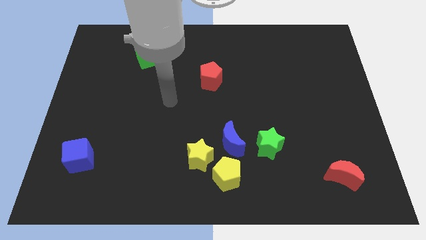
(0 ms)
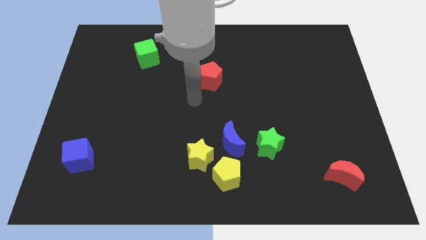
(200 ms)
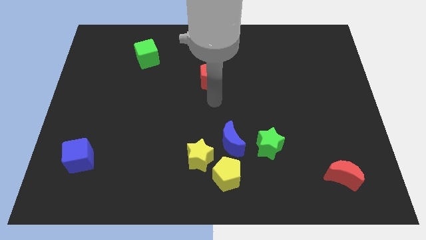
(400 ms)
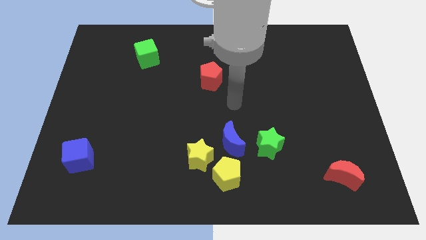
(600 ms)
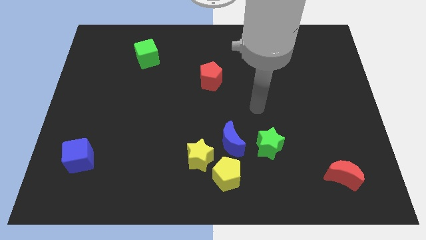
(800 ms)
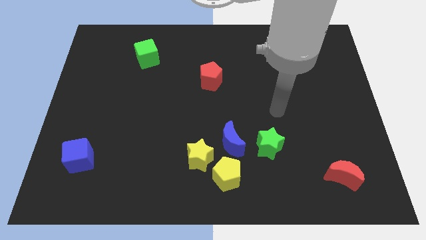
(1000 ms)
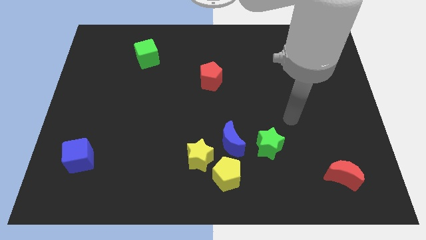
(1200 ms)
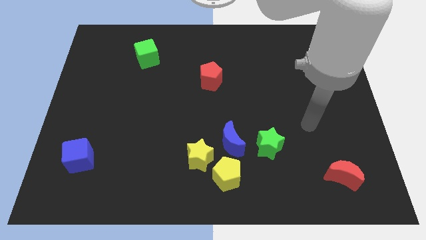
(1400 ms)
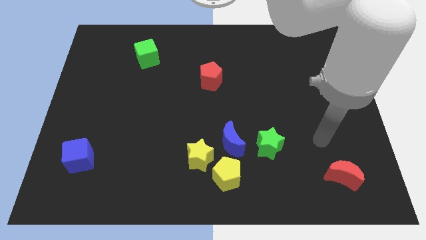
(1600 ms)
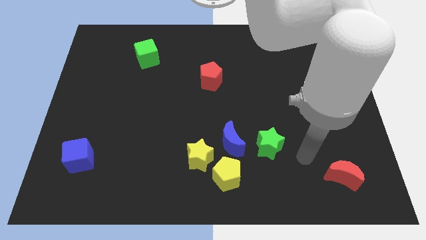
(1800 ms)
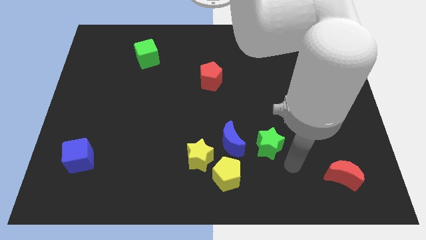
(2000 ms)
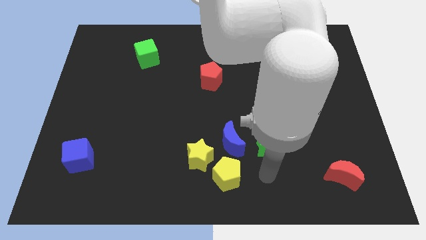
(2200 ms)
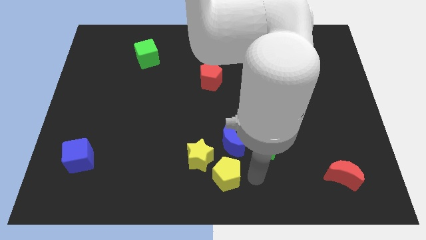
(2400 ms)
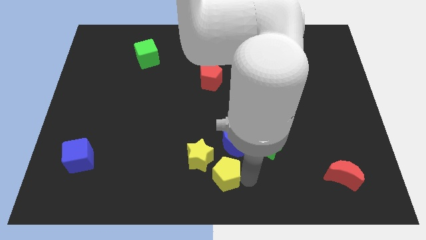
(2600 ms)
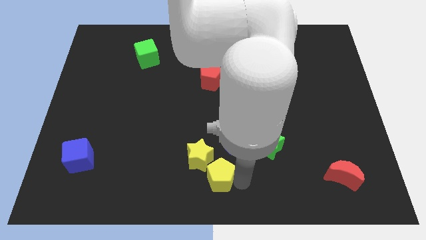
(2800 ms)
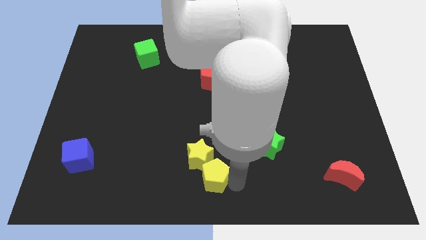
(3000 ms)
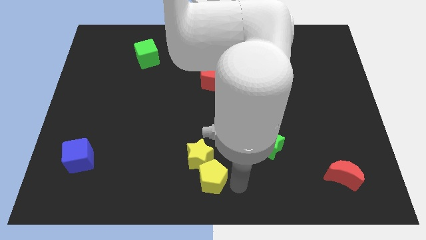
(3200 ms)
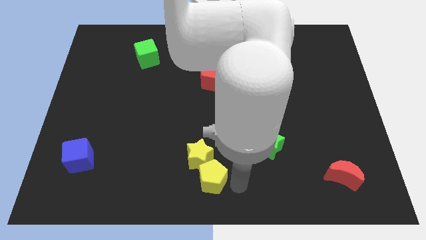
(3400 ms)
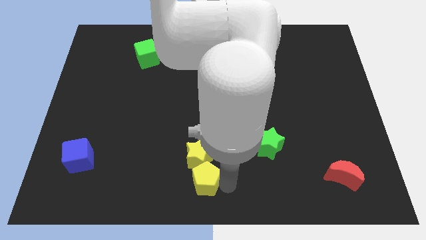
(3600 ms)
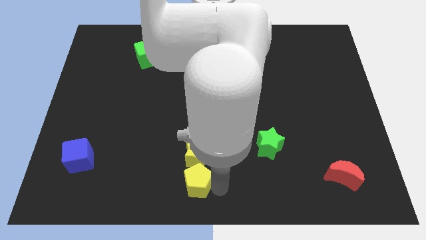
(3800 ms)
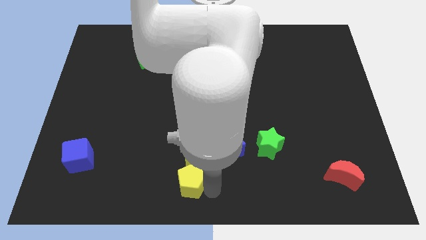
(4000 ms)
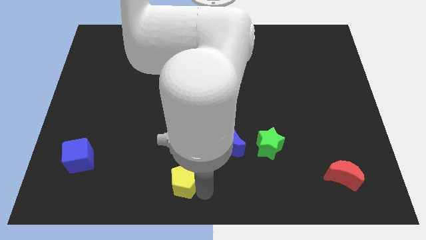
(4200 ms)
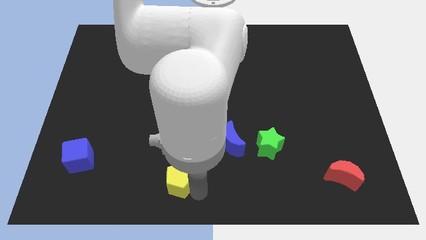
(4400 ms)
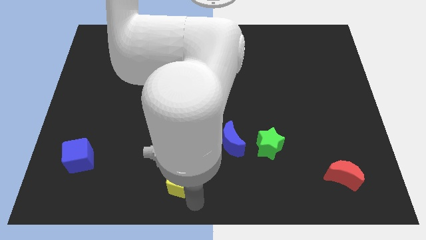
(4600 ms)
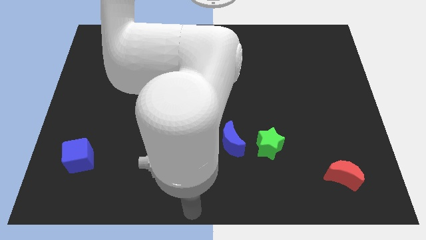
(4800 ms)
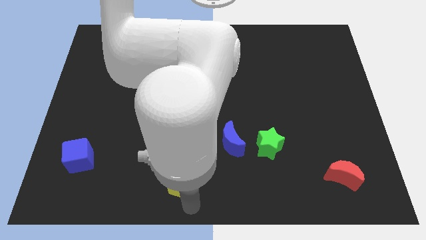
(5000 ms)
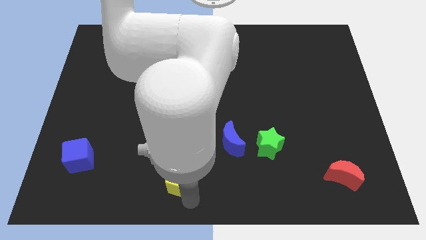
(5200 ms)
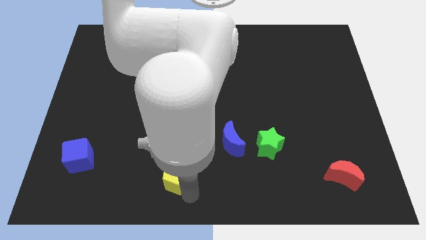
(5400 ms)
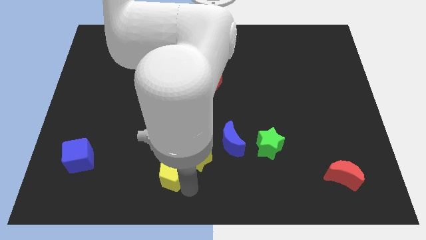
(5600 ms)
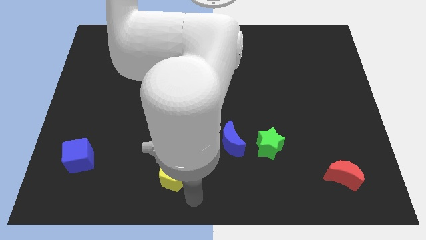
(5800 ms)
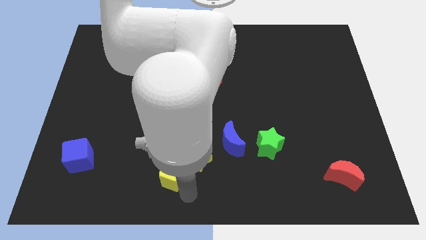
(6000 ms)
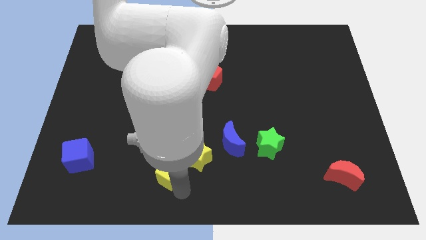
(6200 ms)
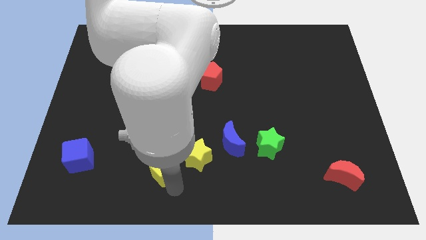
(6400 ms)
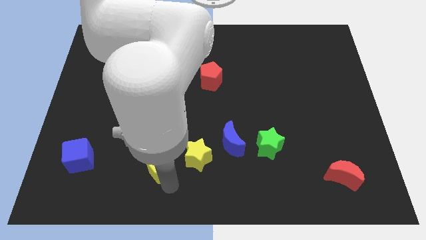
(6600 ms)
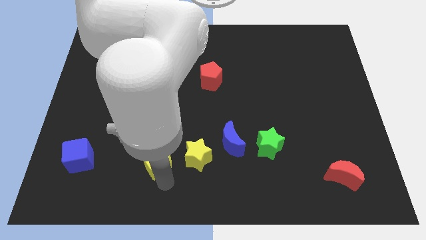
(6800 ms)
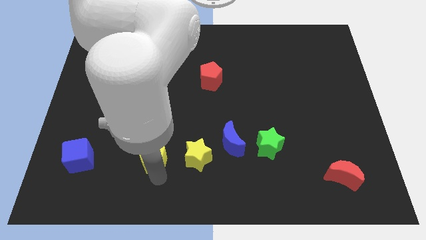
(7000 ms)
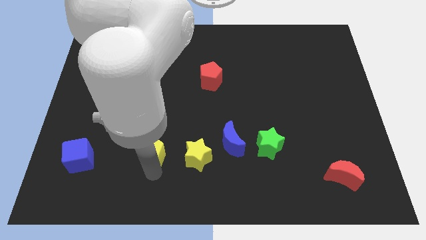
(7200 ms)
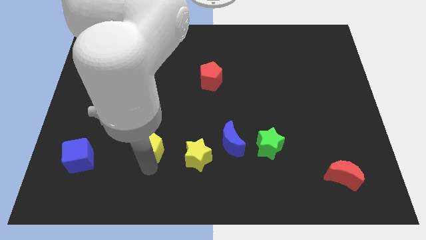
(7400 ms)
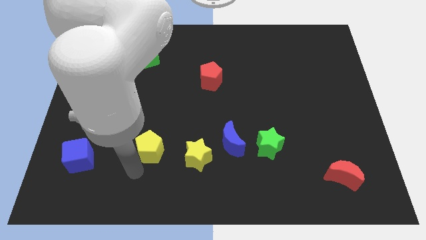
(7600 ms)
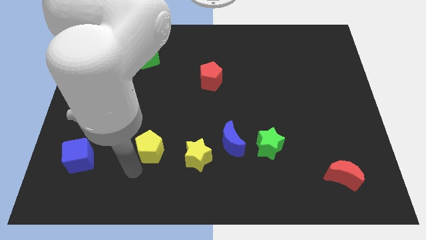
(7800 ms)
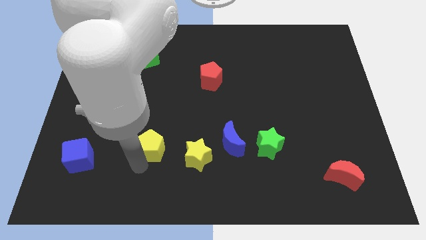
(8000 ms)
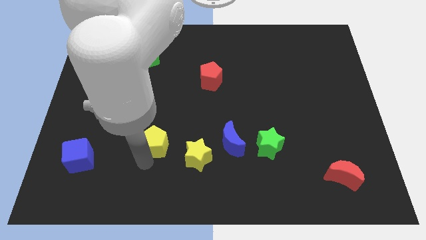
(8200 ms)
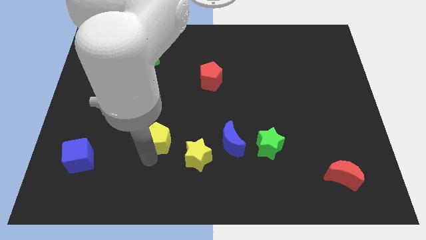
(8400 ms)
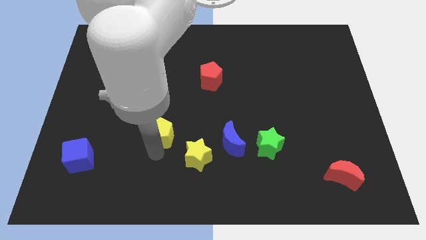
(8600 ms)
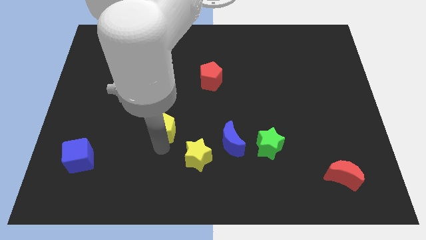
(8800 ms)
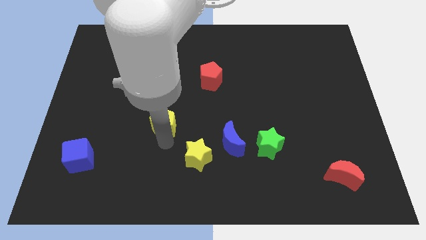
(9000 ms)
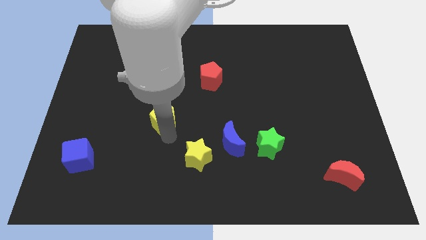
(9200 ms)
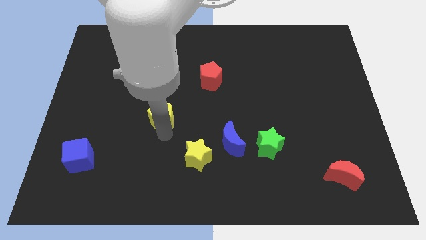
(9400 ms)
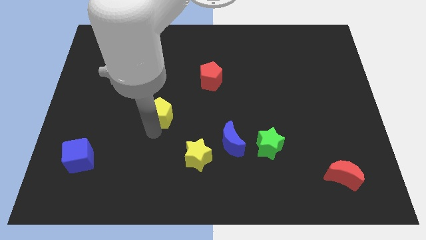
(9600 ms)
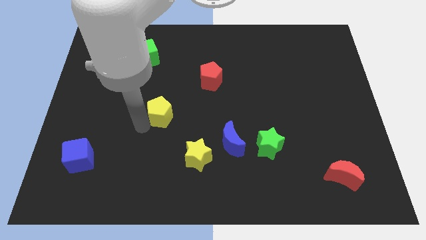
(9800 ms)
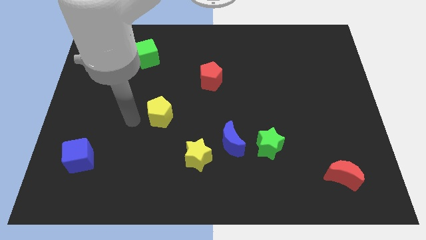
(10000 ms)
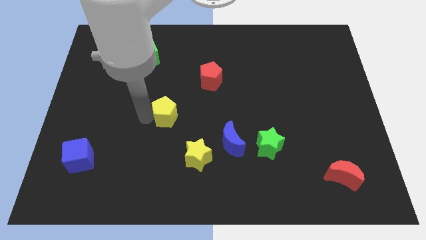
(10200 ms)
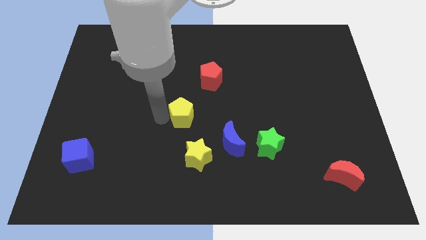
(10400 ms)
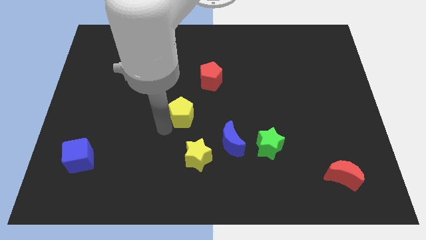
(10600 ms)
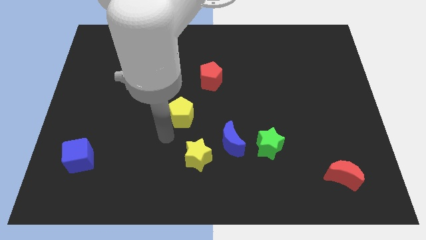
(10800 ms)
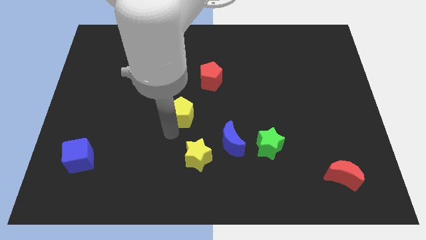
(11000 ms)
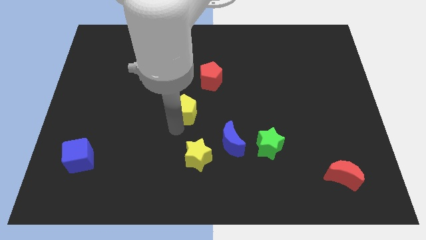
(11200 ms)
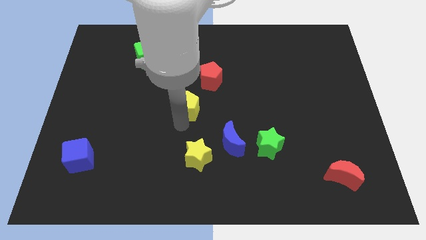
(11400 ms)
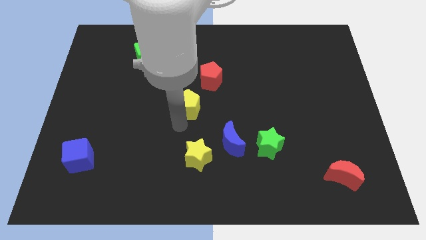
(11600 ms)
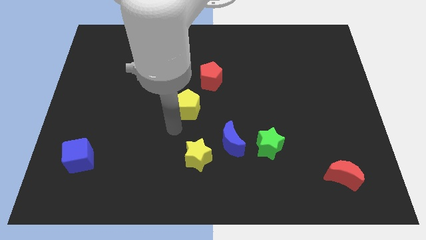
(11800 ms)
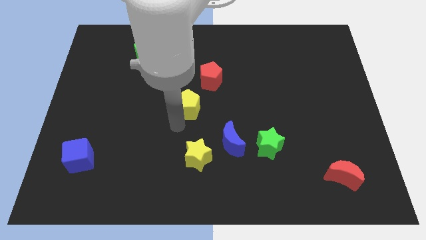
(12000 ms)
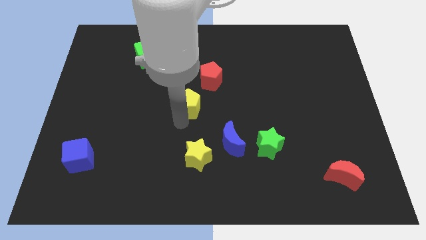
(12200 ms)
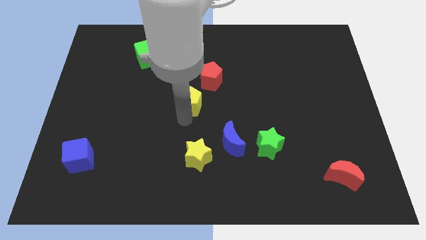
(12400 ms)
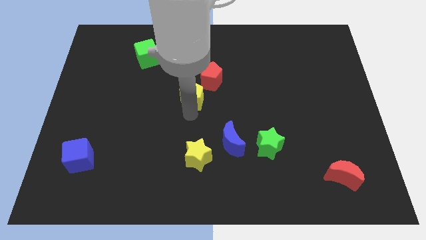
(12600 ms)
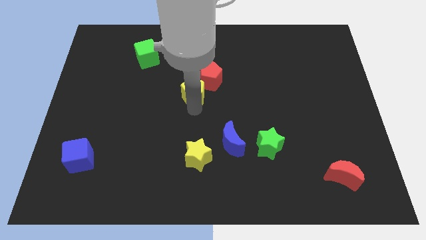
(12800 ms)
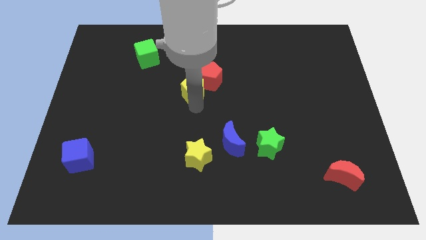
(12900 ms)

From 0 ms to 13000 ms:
slide the yellow pentagon close to the red pentagon
